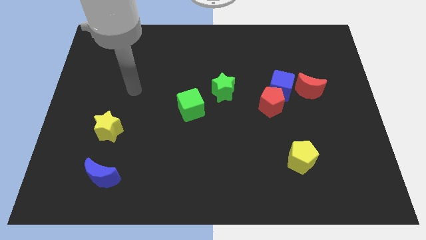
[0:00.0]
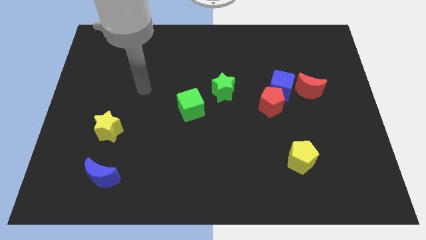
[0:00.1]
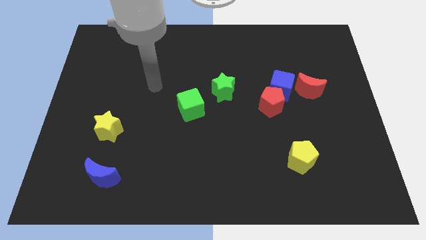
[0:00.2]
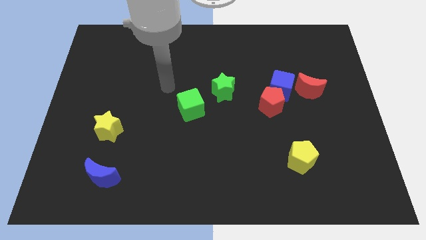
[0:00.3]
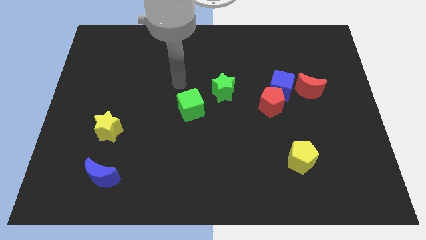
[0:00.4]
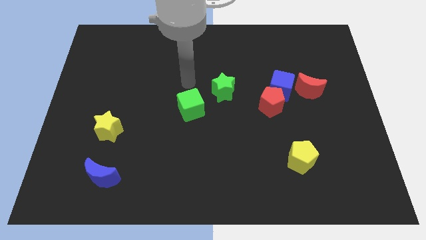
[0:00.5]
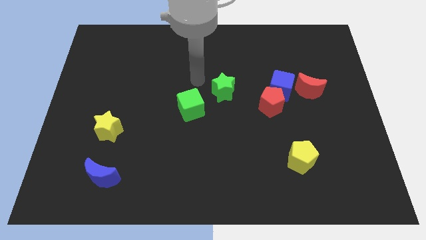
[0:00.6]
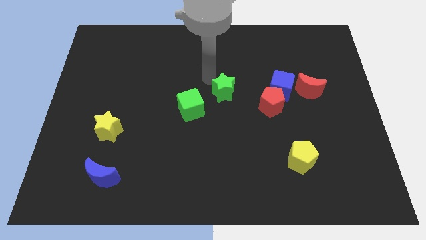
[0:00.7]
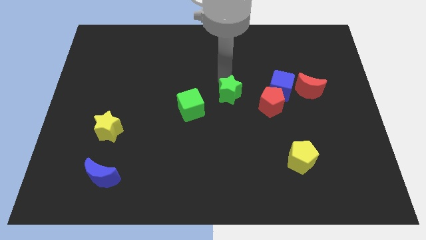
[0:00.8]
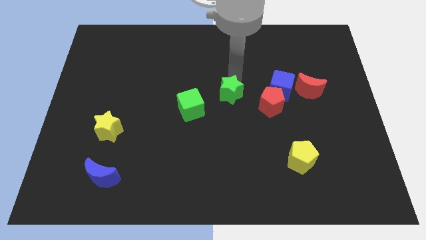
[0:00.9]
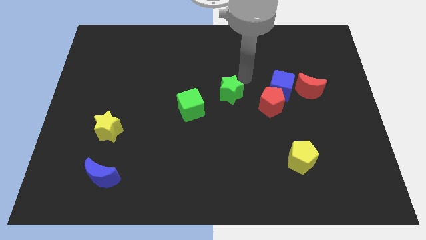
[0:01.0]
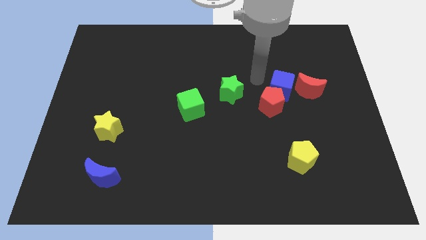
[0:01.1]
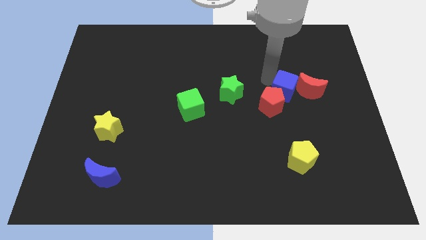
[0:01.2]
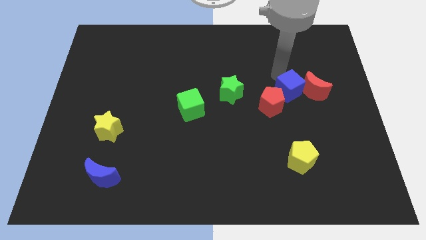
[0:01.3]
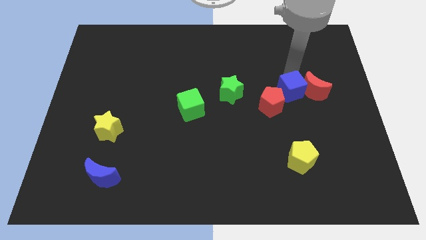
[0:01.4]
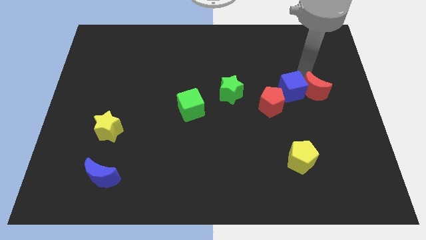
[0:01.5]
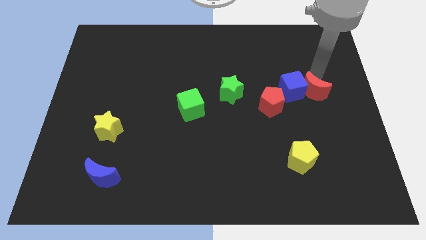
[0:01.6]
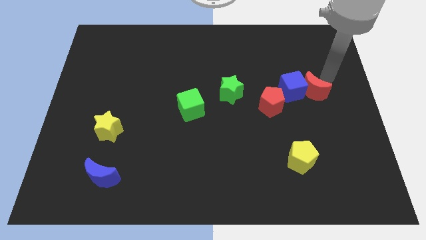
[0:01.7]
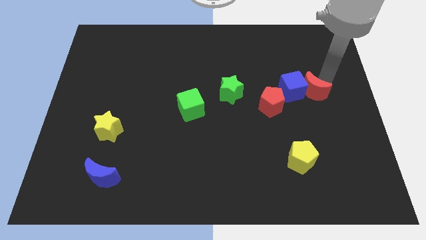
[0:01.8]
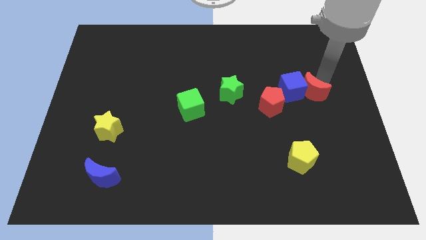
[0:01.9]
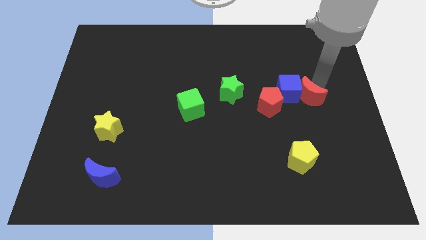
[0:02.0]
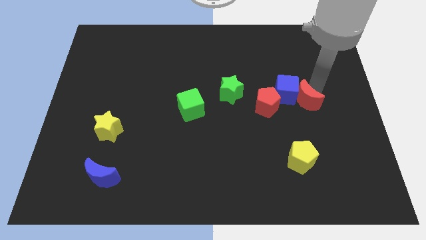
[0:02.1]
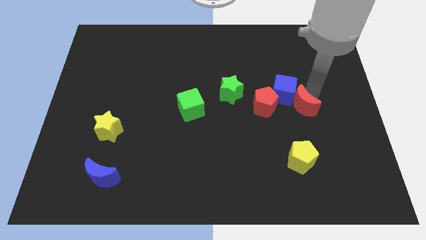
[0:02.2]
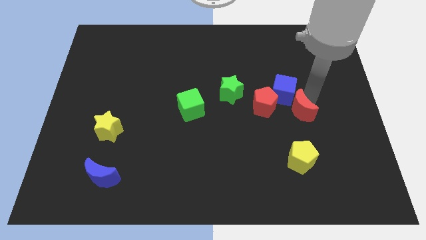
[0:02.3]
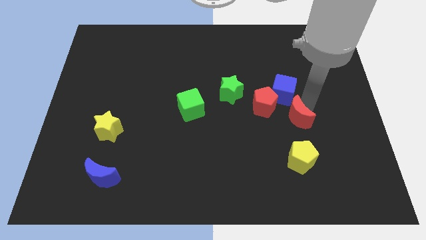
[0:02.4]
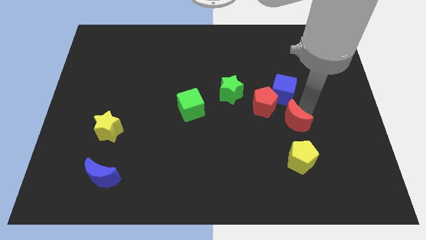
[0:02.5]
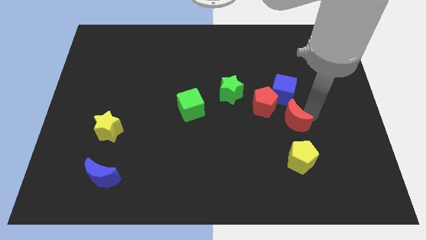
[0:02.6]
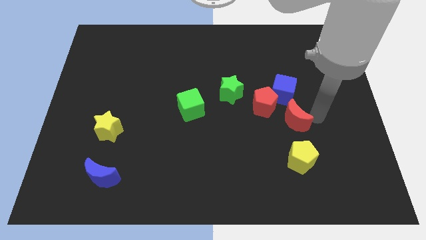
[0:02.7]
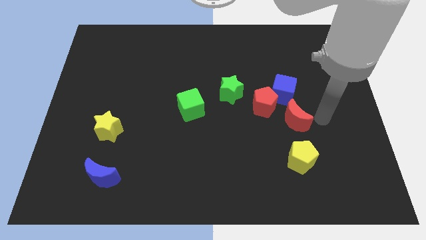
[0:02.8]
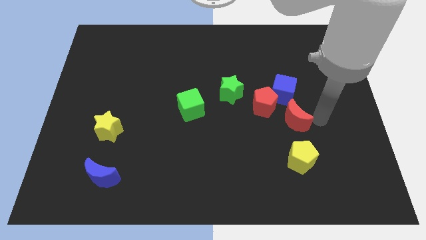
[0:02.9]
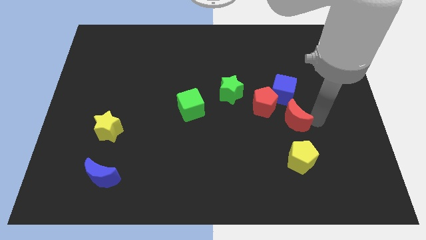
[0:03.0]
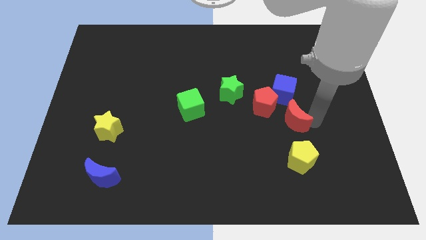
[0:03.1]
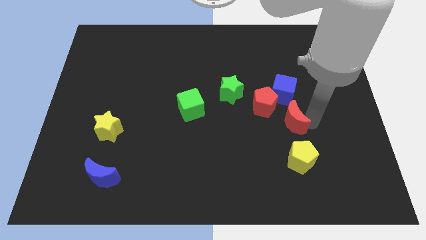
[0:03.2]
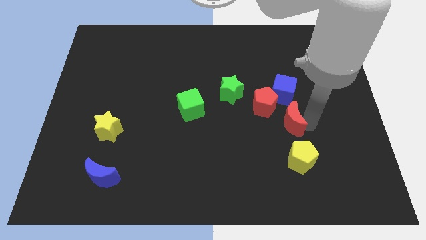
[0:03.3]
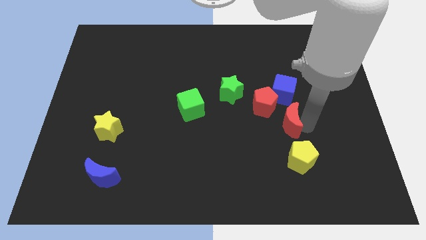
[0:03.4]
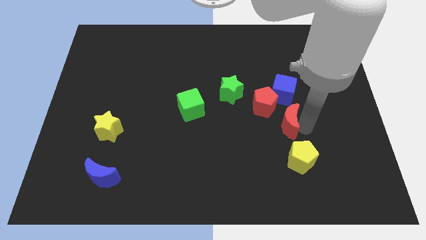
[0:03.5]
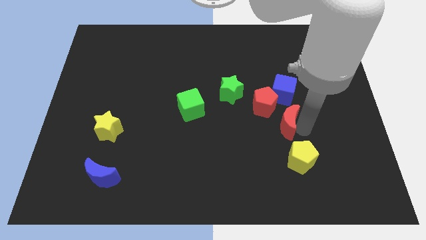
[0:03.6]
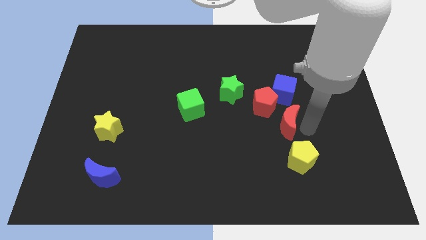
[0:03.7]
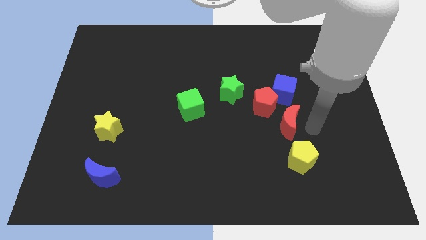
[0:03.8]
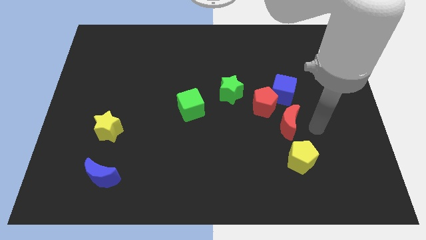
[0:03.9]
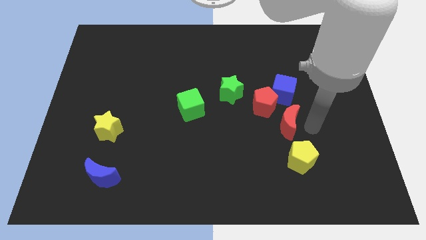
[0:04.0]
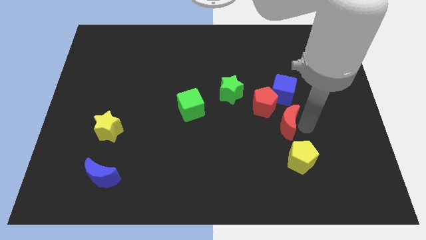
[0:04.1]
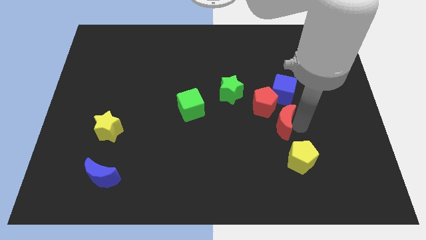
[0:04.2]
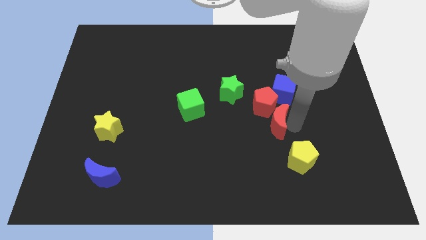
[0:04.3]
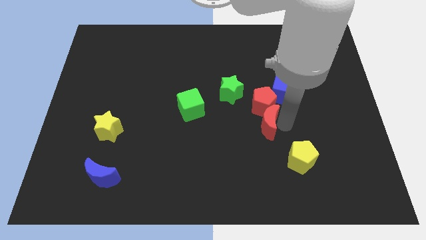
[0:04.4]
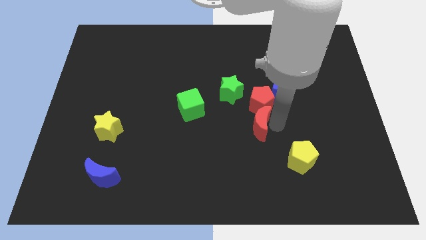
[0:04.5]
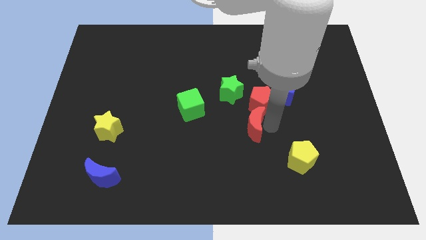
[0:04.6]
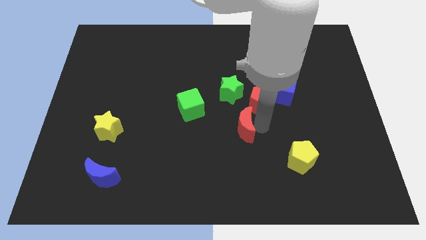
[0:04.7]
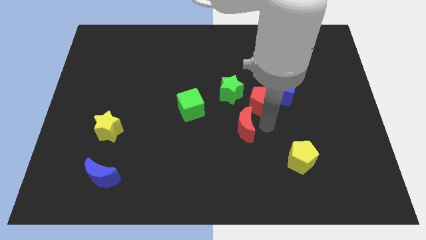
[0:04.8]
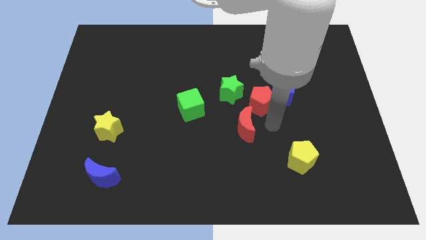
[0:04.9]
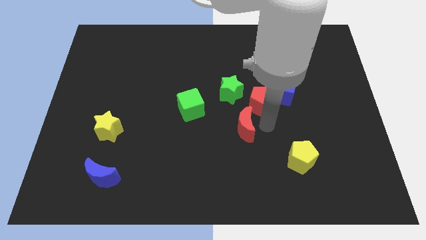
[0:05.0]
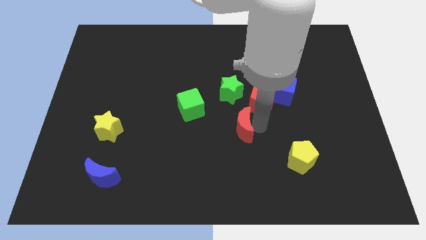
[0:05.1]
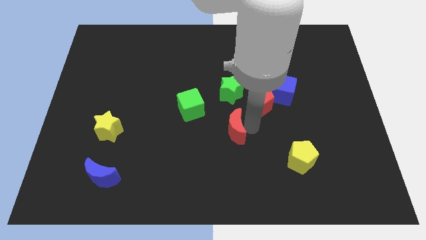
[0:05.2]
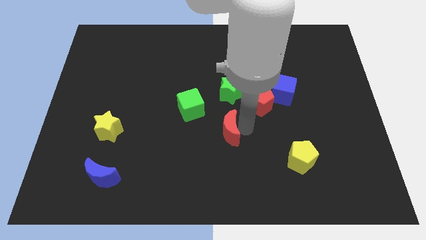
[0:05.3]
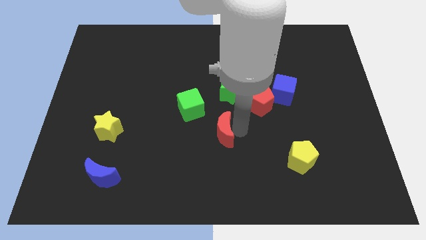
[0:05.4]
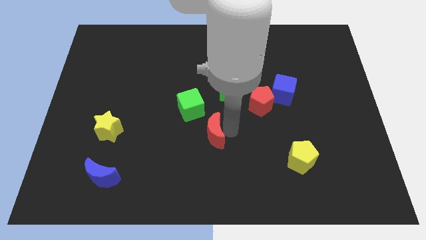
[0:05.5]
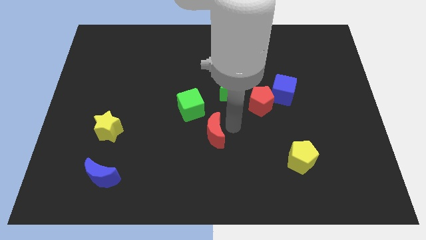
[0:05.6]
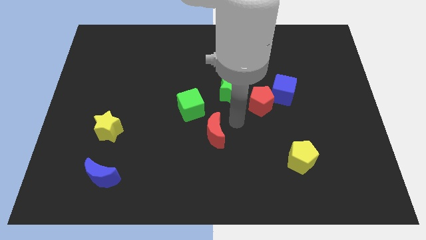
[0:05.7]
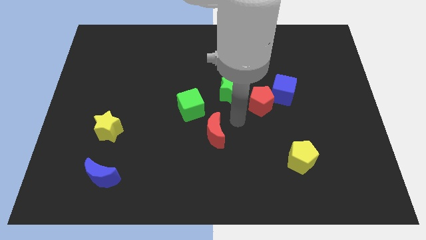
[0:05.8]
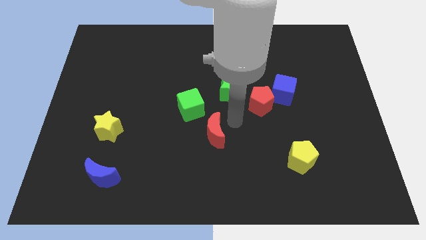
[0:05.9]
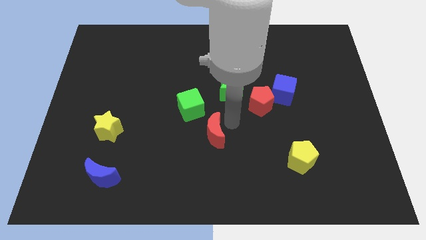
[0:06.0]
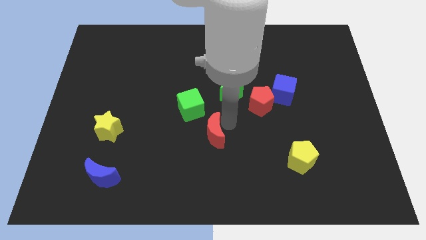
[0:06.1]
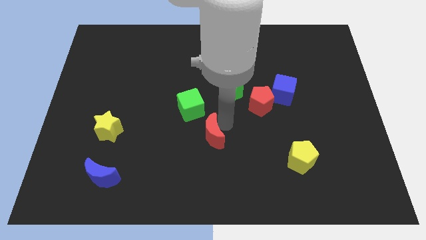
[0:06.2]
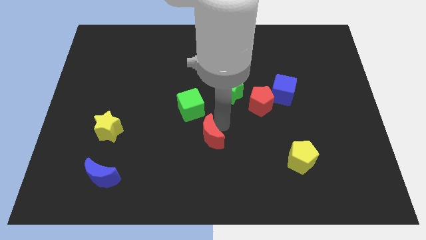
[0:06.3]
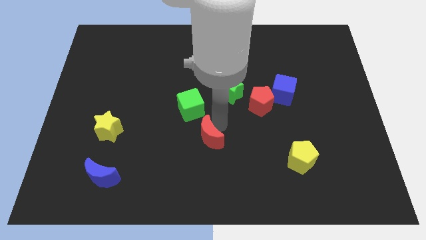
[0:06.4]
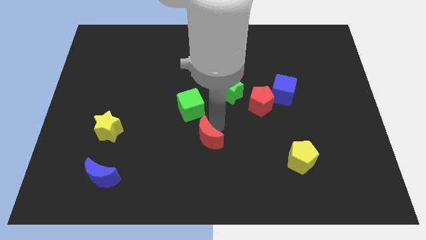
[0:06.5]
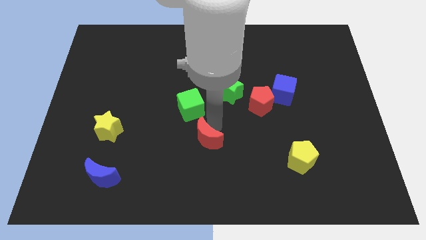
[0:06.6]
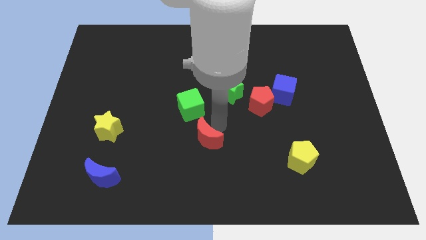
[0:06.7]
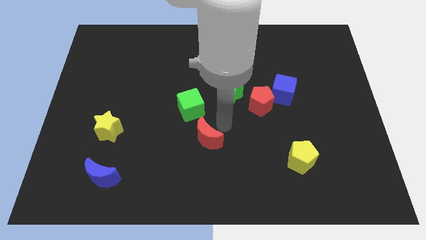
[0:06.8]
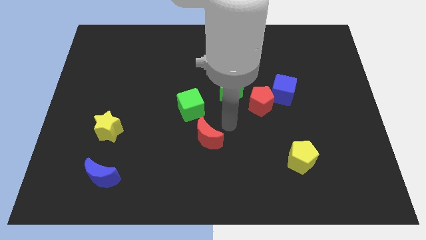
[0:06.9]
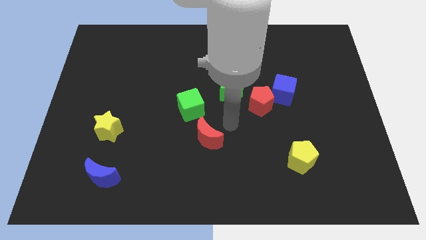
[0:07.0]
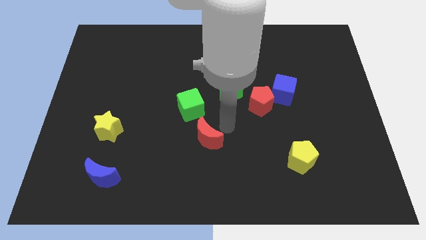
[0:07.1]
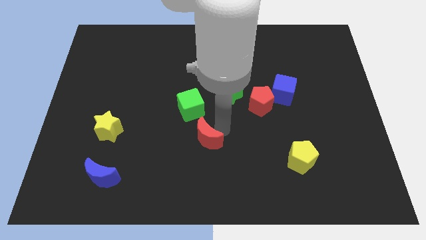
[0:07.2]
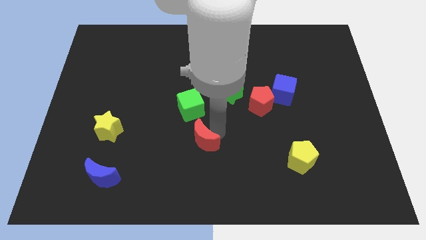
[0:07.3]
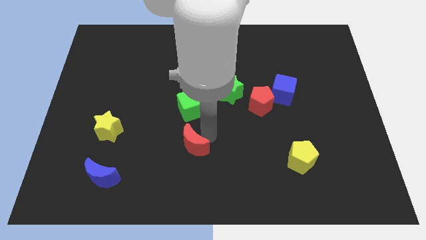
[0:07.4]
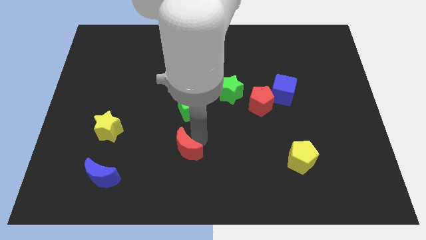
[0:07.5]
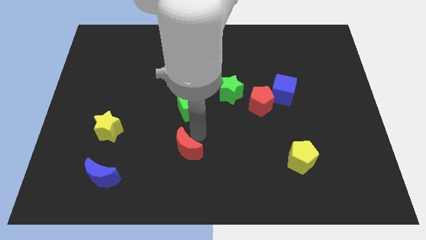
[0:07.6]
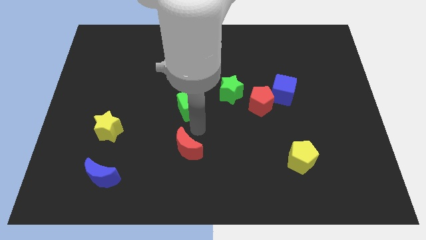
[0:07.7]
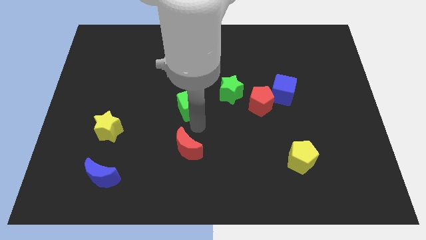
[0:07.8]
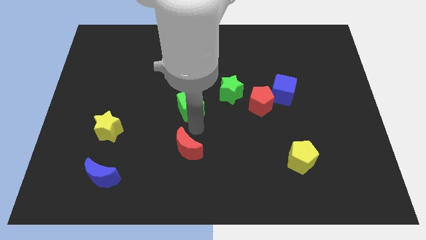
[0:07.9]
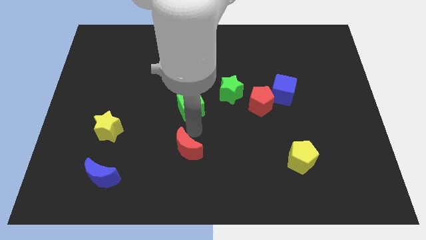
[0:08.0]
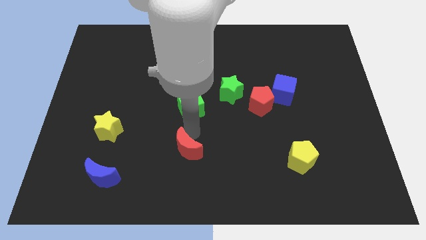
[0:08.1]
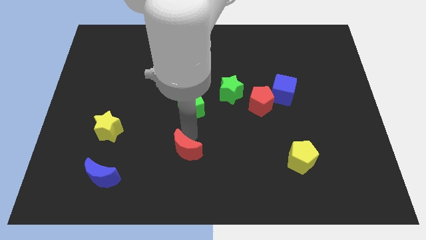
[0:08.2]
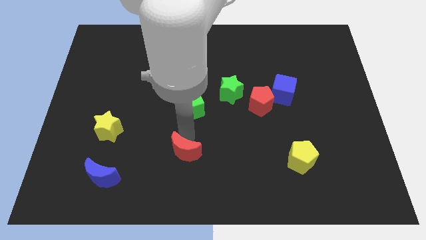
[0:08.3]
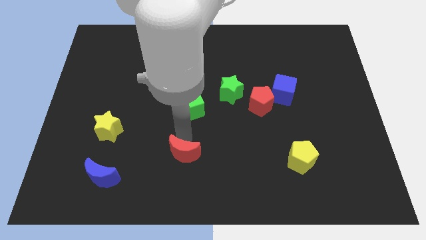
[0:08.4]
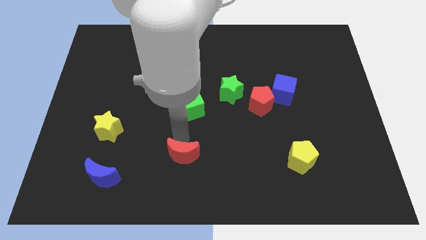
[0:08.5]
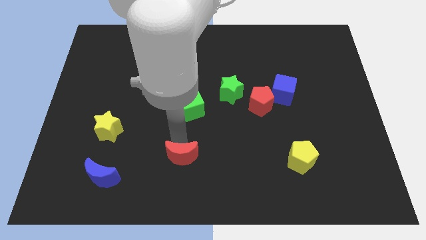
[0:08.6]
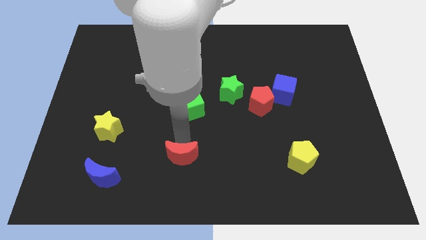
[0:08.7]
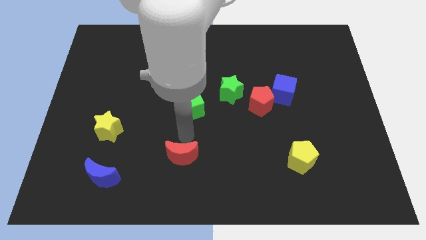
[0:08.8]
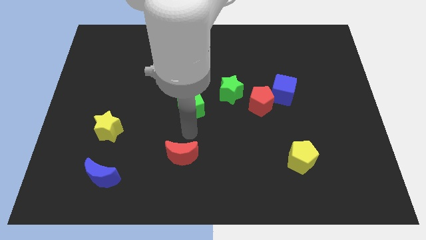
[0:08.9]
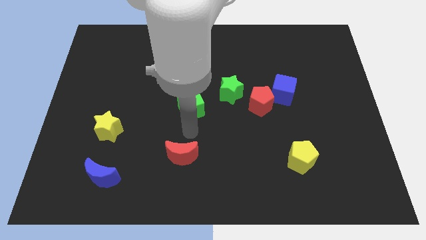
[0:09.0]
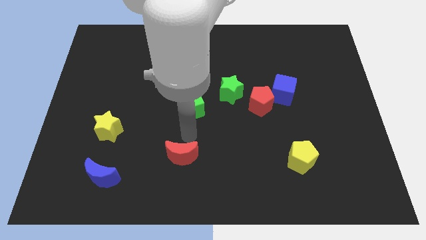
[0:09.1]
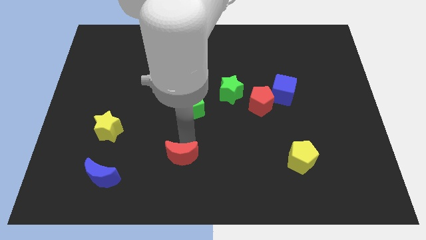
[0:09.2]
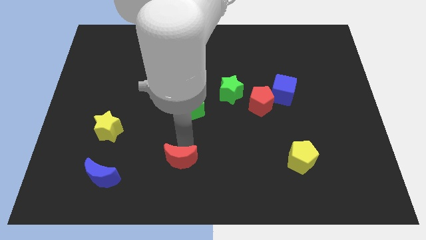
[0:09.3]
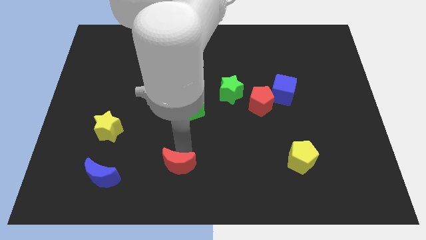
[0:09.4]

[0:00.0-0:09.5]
slide the red moon to the right of the blue moon
